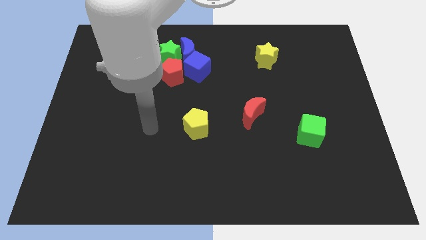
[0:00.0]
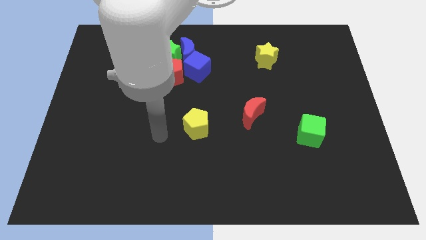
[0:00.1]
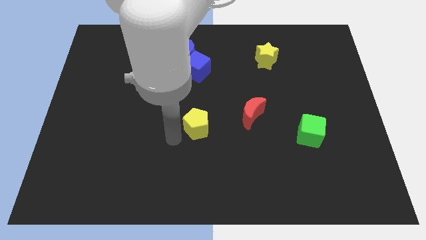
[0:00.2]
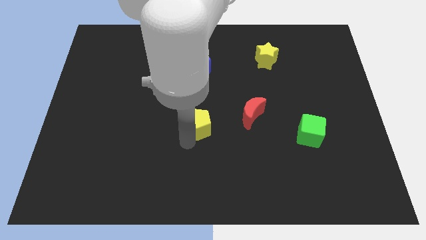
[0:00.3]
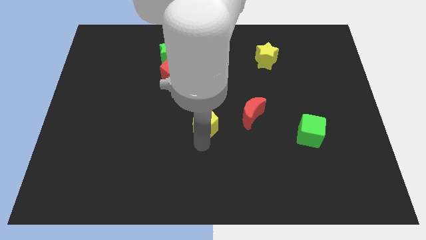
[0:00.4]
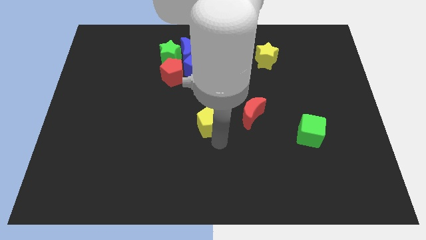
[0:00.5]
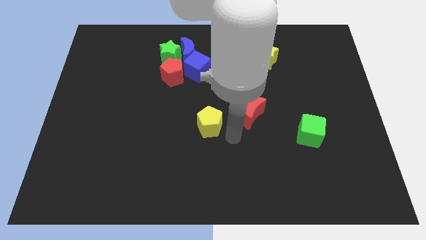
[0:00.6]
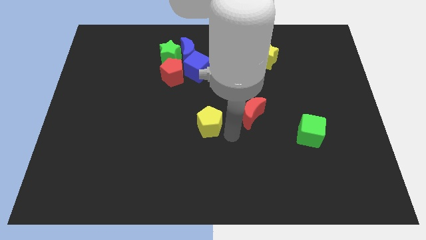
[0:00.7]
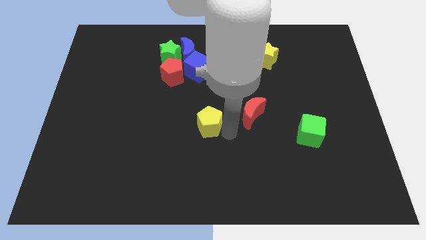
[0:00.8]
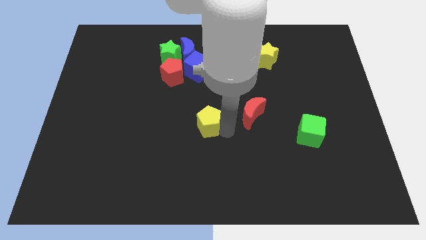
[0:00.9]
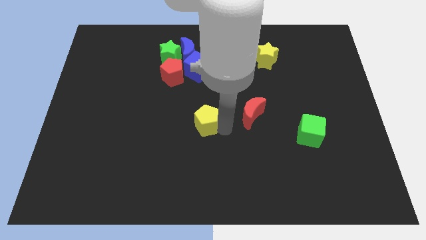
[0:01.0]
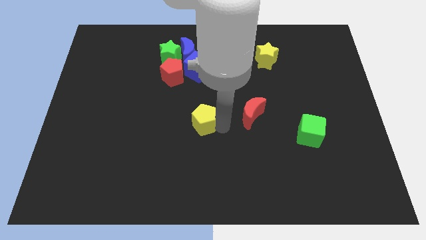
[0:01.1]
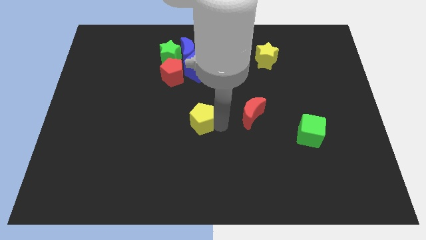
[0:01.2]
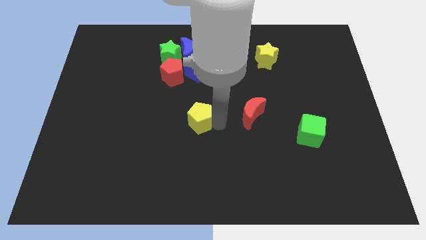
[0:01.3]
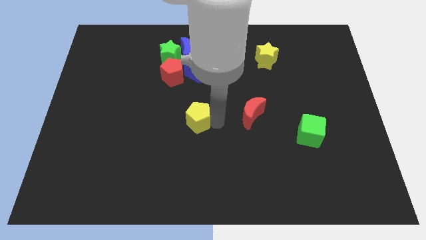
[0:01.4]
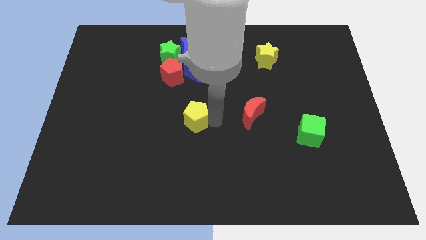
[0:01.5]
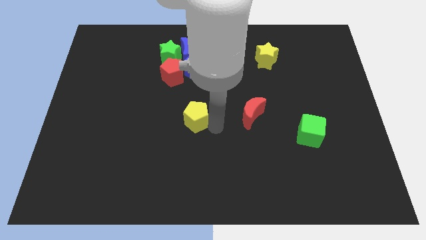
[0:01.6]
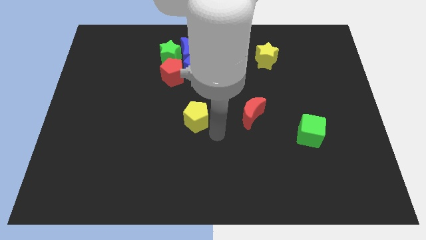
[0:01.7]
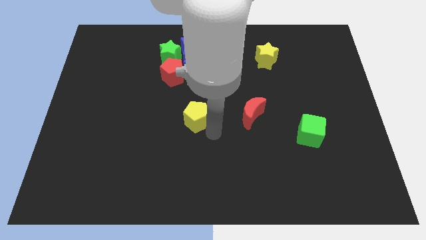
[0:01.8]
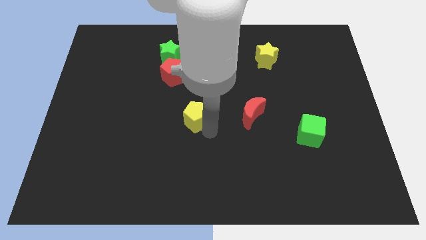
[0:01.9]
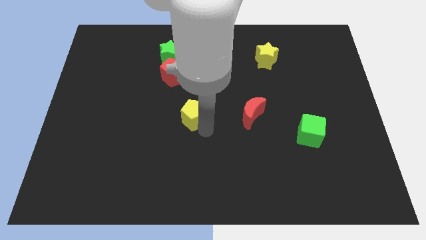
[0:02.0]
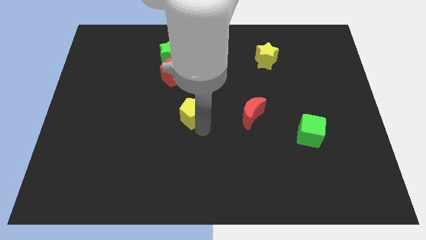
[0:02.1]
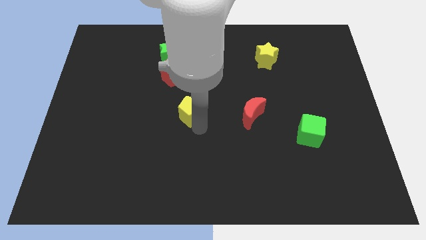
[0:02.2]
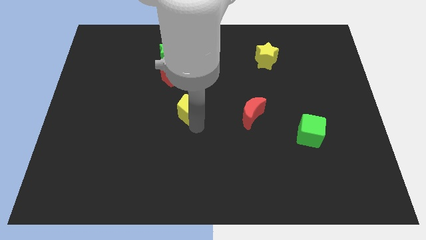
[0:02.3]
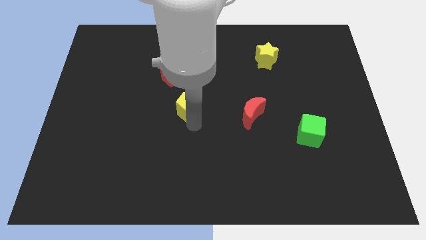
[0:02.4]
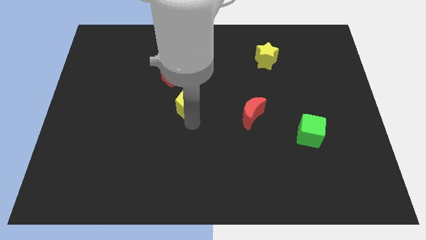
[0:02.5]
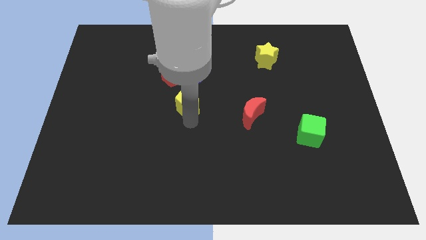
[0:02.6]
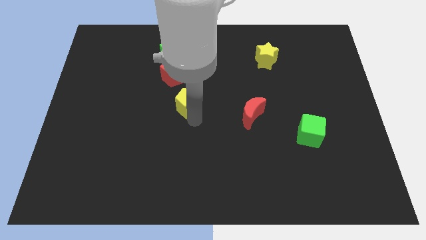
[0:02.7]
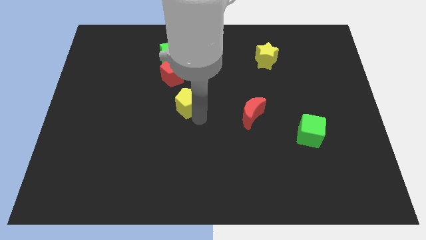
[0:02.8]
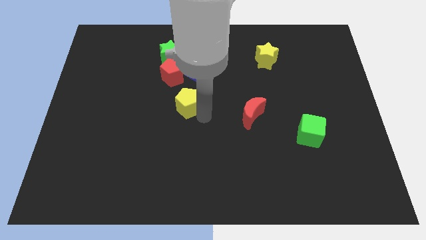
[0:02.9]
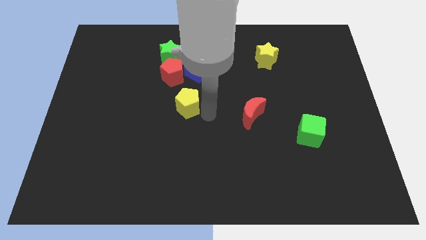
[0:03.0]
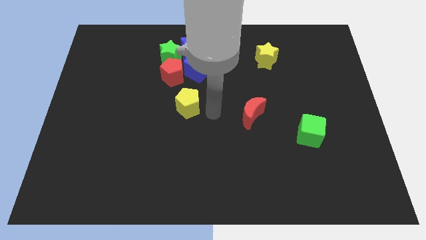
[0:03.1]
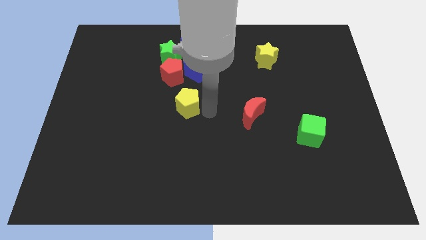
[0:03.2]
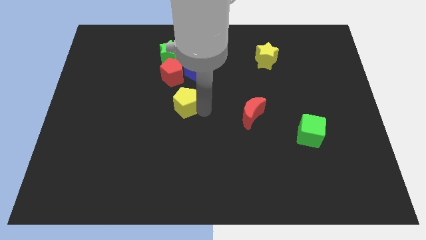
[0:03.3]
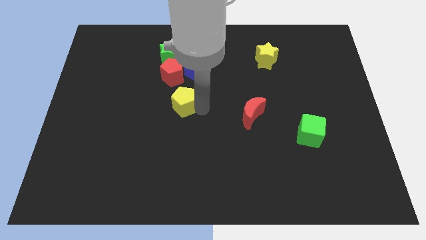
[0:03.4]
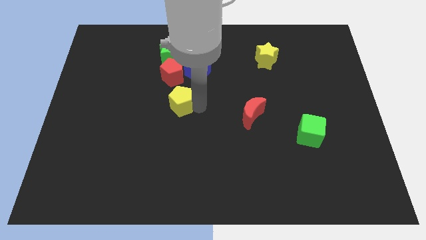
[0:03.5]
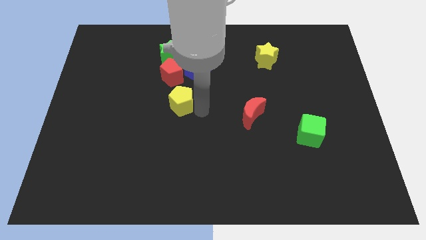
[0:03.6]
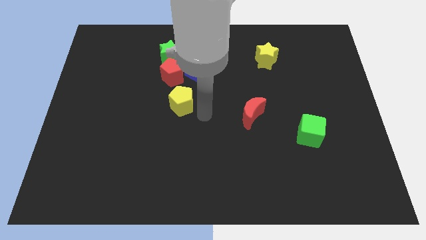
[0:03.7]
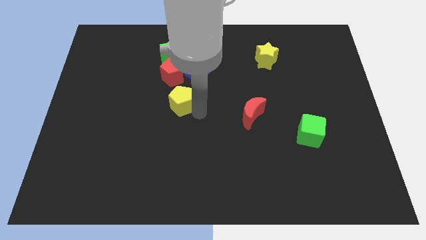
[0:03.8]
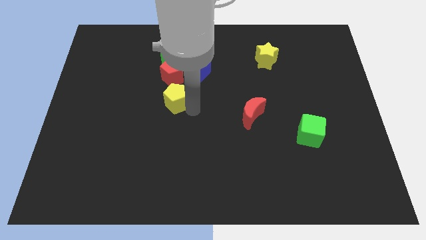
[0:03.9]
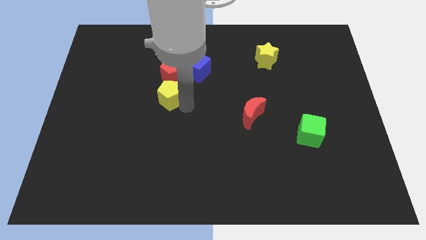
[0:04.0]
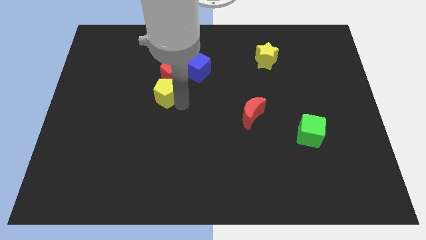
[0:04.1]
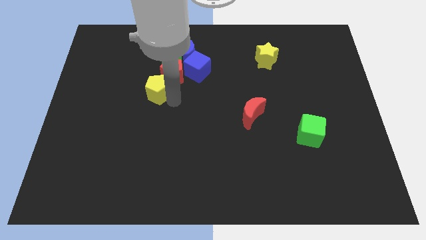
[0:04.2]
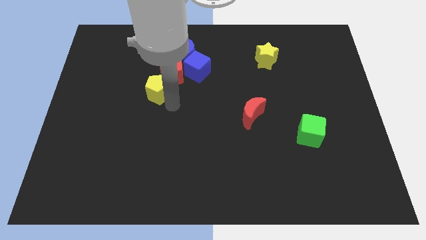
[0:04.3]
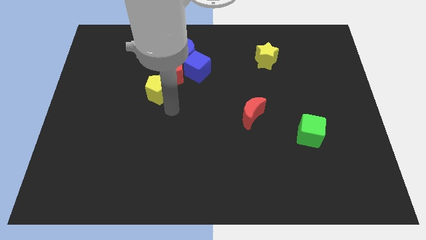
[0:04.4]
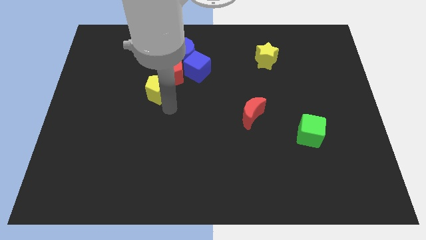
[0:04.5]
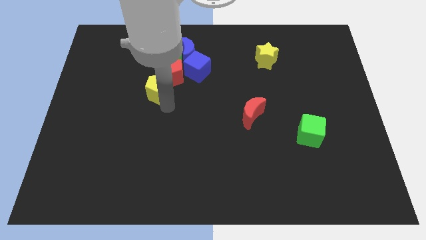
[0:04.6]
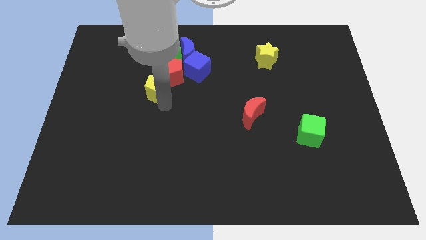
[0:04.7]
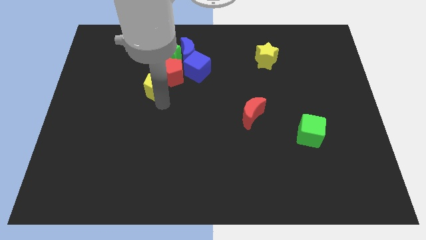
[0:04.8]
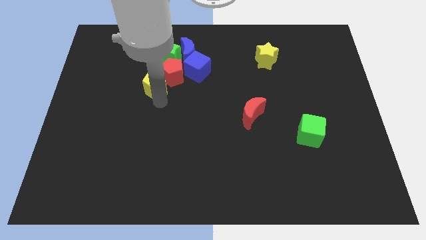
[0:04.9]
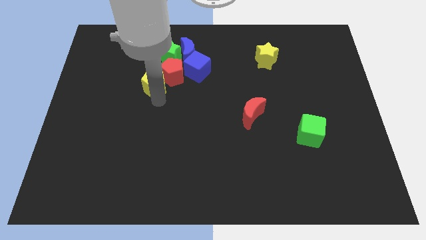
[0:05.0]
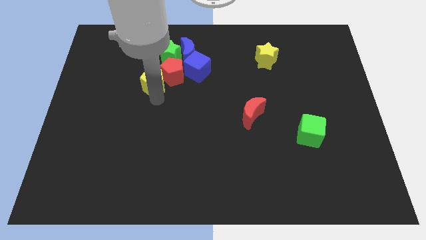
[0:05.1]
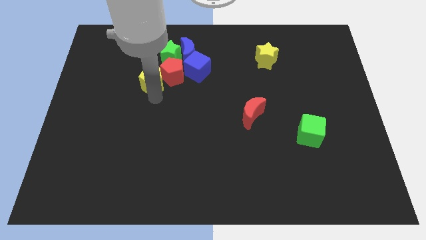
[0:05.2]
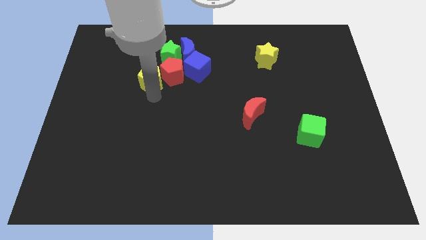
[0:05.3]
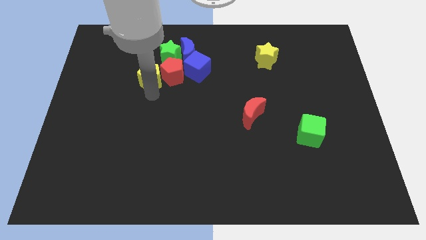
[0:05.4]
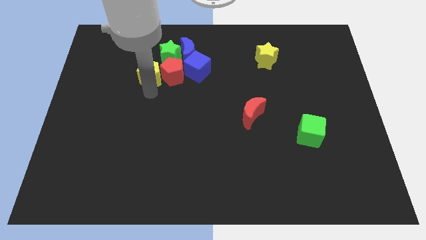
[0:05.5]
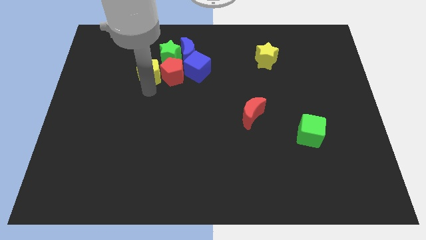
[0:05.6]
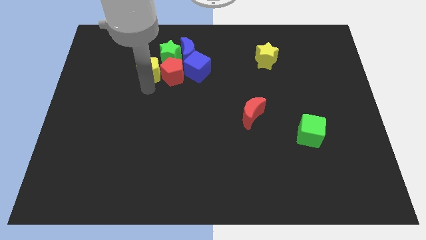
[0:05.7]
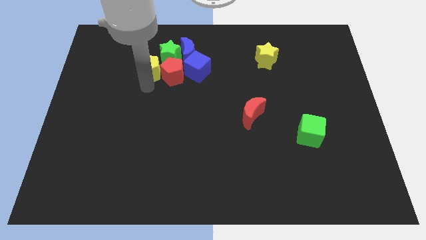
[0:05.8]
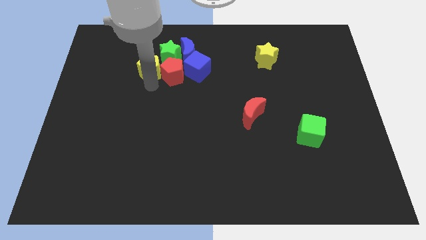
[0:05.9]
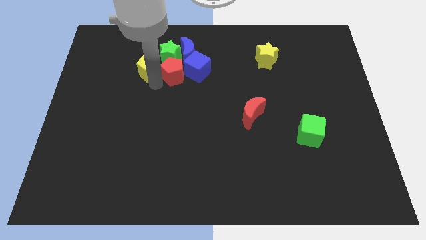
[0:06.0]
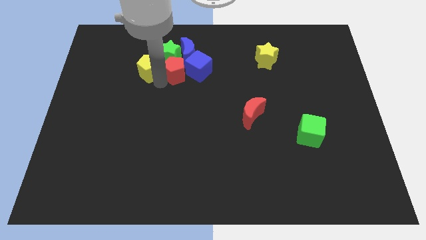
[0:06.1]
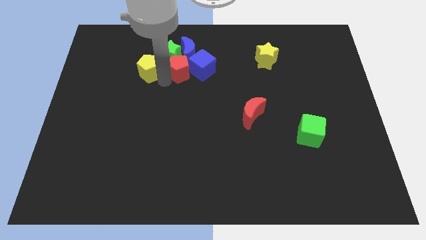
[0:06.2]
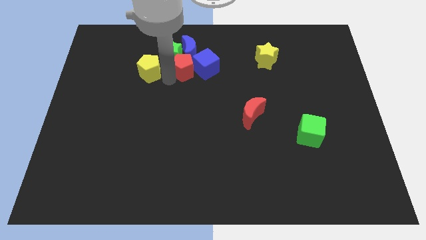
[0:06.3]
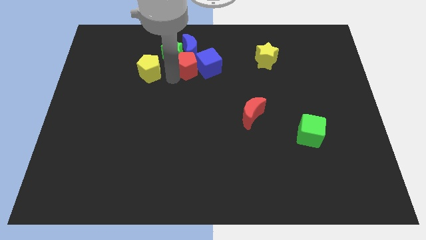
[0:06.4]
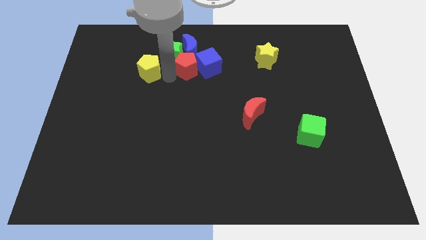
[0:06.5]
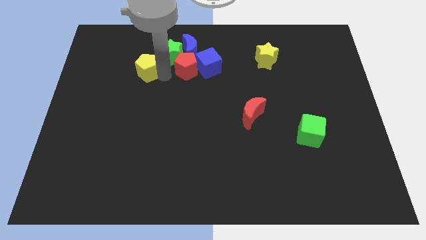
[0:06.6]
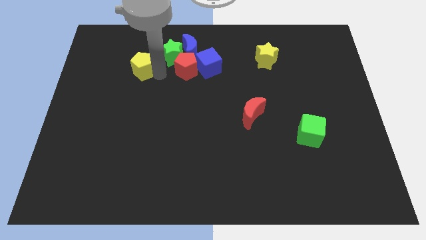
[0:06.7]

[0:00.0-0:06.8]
put the yellow pentagon left of the green star
